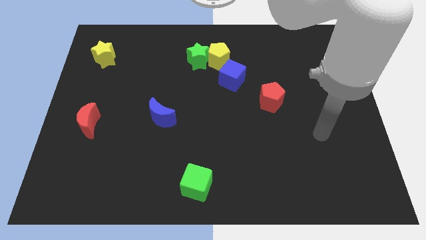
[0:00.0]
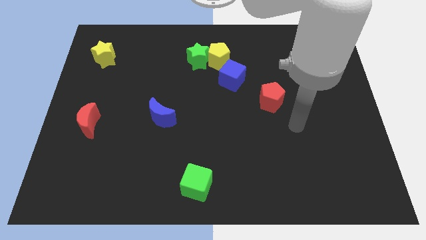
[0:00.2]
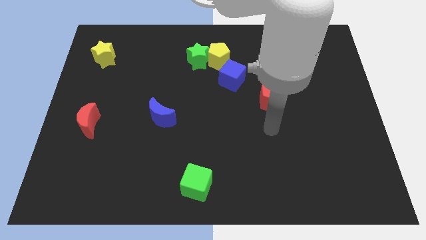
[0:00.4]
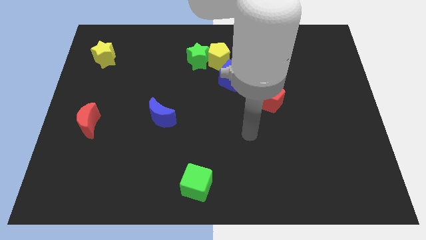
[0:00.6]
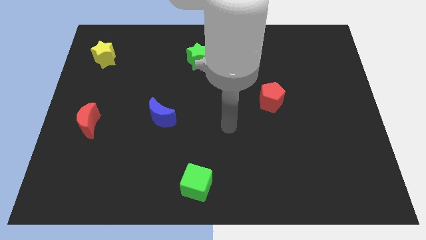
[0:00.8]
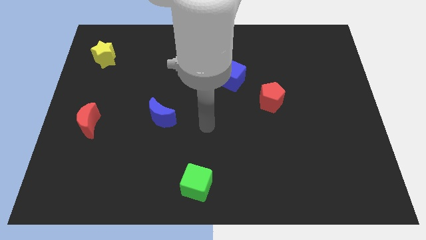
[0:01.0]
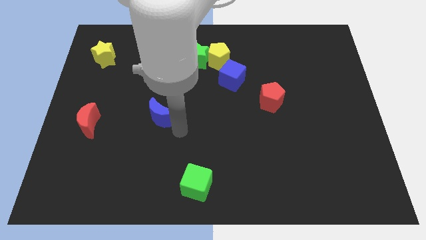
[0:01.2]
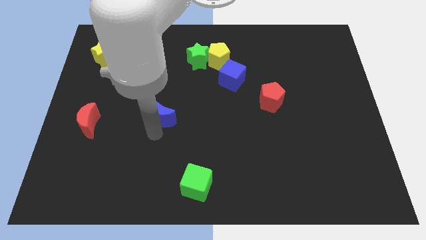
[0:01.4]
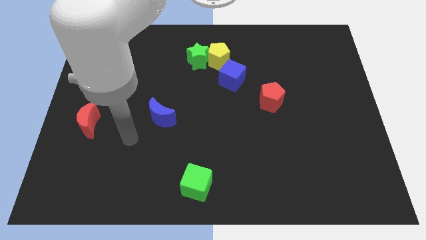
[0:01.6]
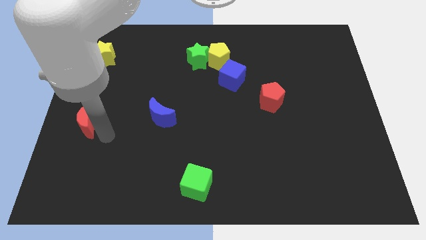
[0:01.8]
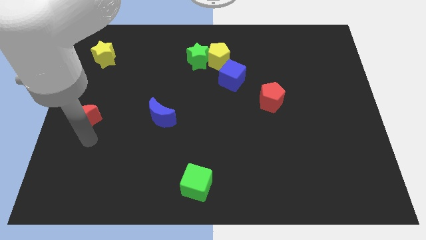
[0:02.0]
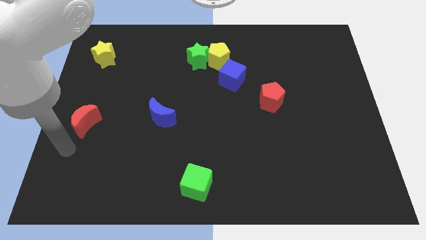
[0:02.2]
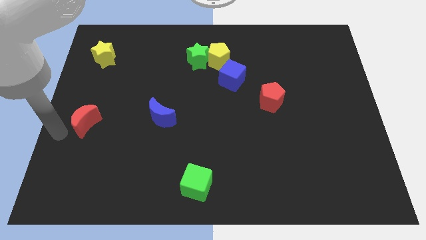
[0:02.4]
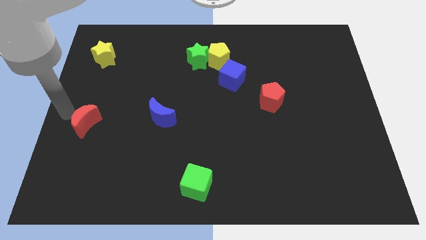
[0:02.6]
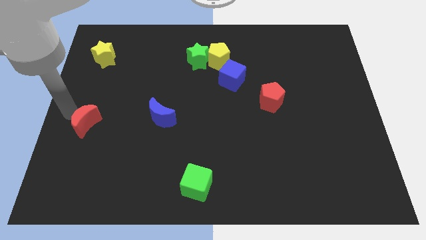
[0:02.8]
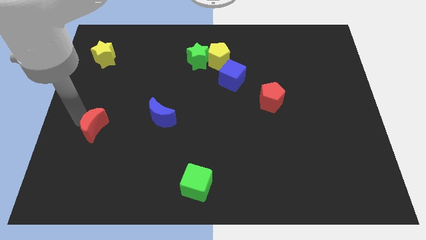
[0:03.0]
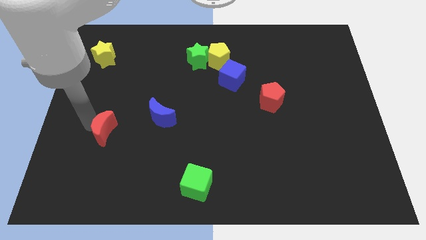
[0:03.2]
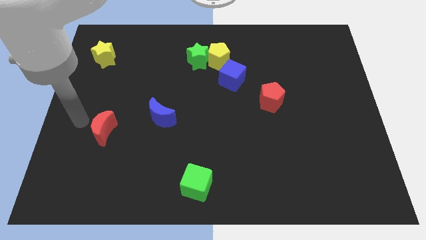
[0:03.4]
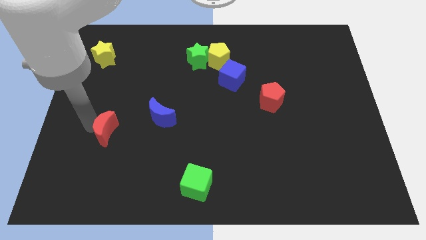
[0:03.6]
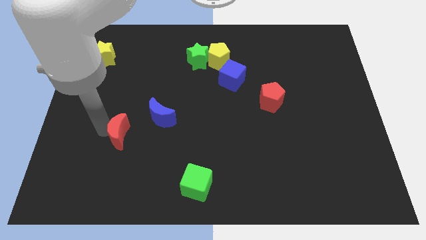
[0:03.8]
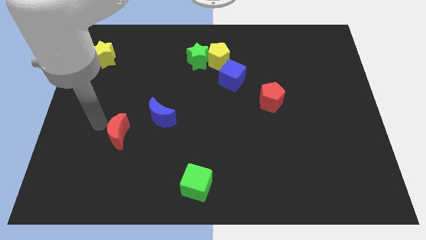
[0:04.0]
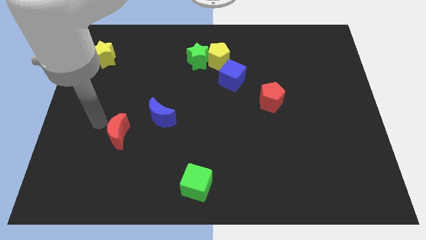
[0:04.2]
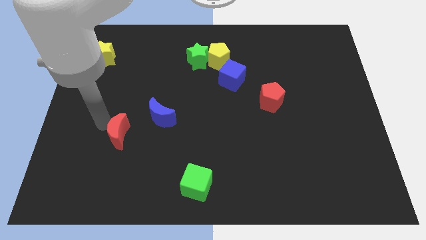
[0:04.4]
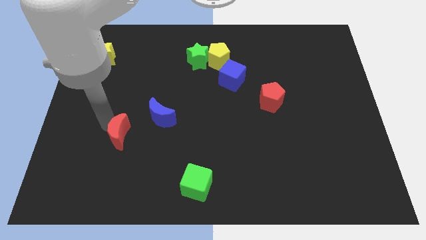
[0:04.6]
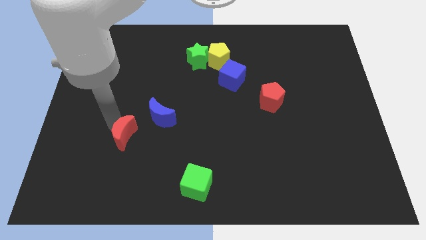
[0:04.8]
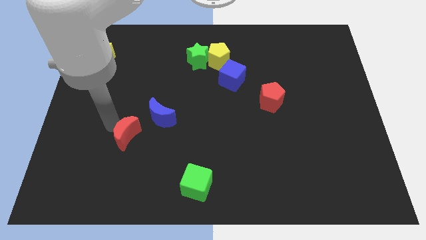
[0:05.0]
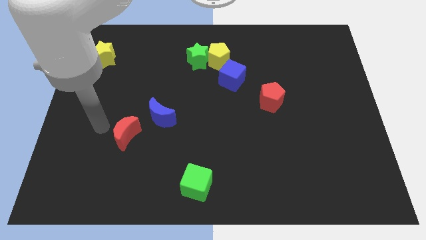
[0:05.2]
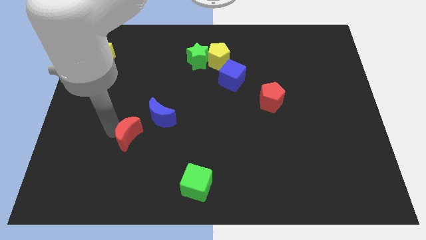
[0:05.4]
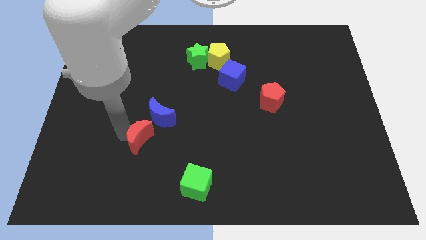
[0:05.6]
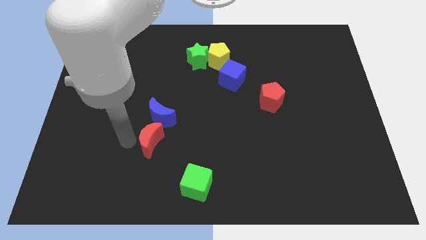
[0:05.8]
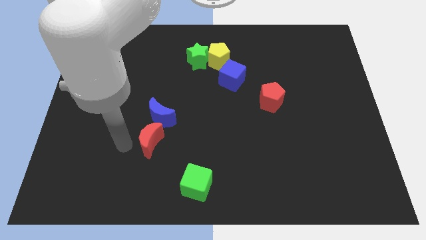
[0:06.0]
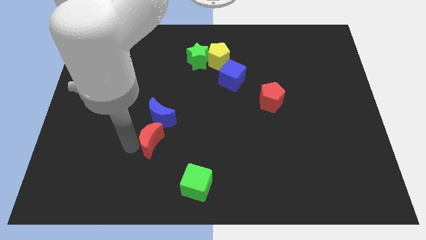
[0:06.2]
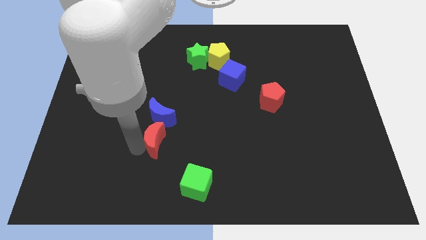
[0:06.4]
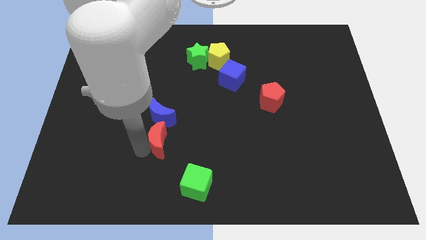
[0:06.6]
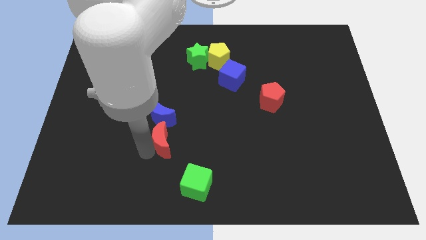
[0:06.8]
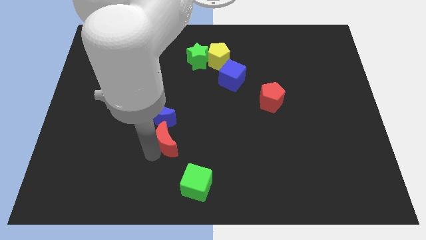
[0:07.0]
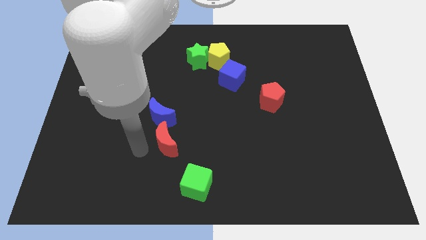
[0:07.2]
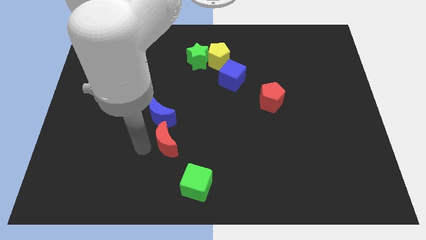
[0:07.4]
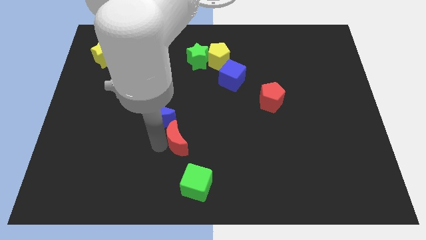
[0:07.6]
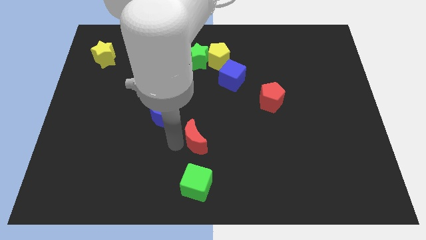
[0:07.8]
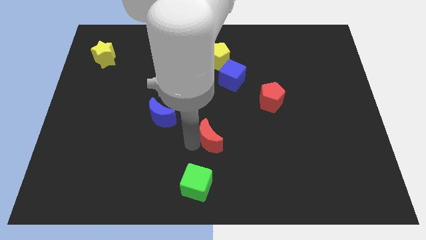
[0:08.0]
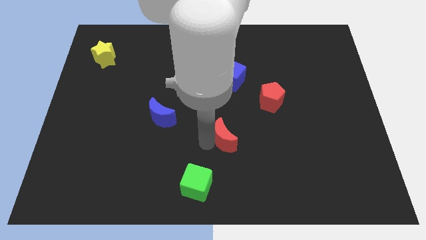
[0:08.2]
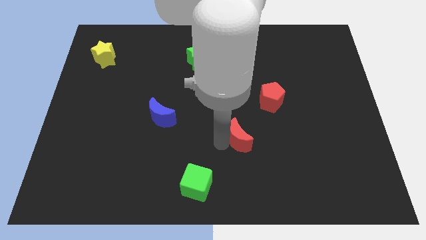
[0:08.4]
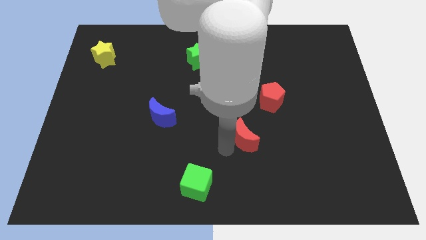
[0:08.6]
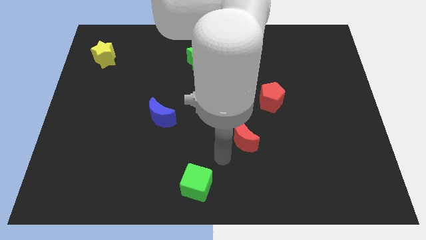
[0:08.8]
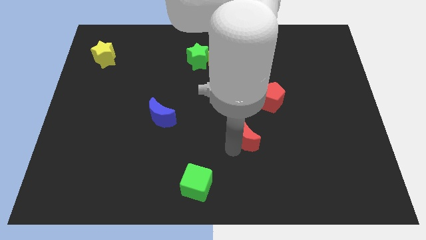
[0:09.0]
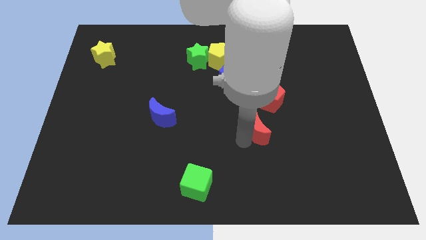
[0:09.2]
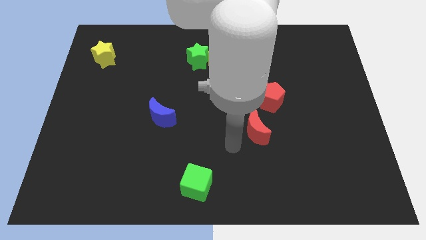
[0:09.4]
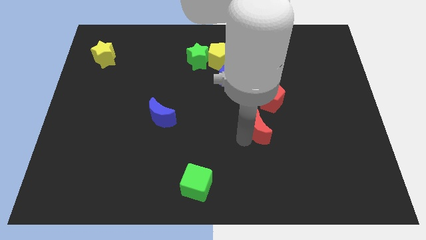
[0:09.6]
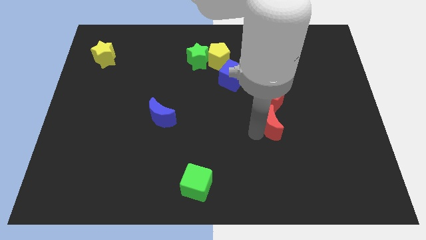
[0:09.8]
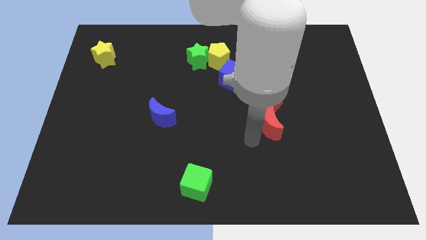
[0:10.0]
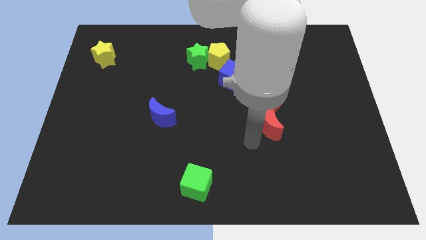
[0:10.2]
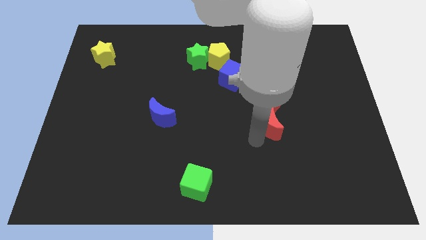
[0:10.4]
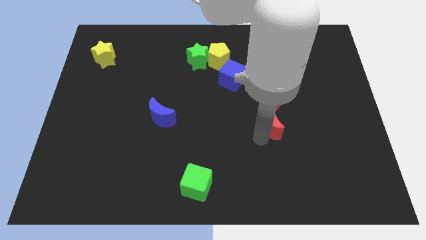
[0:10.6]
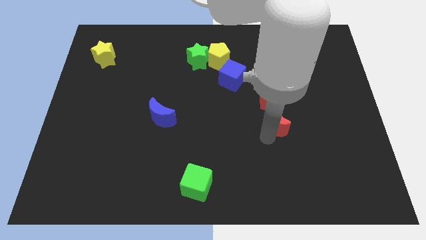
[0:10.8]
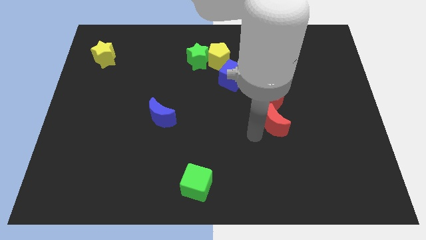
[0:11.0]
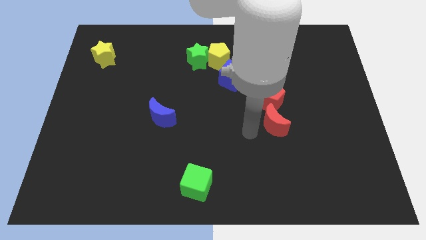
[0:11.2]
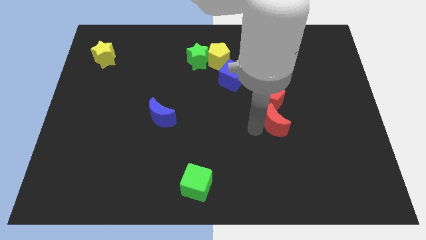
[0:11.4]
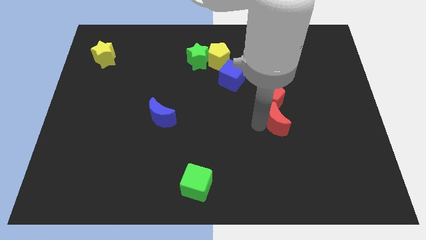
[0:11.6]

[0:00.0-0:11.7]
put the red moon to the bottom right of the red pentagon

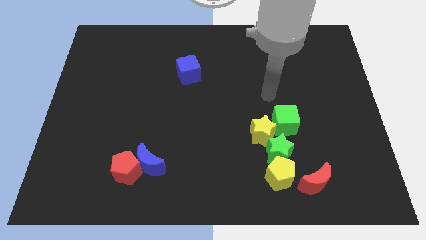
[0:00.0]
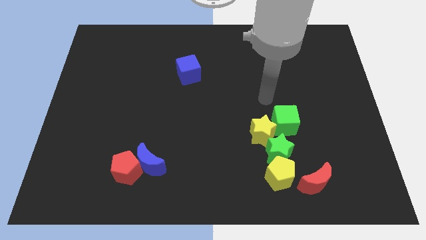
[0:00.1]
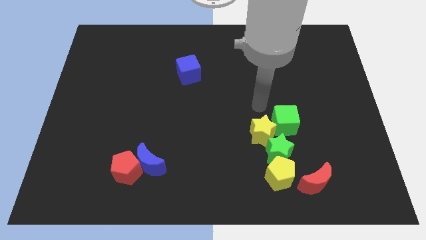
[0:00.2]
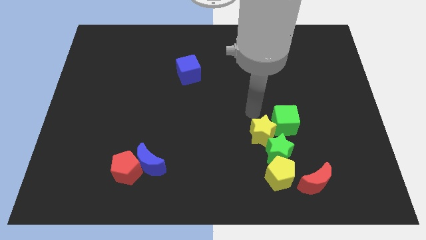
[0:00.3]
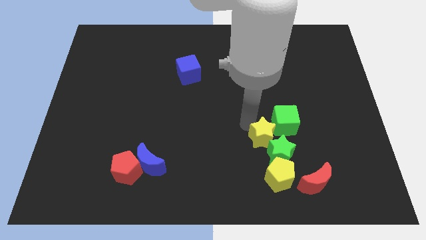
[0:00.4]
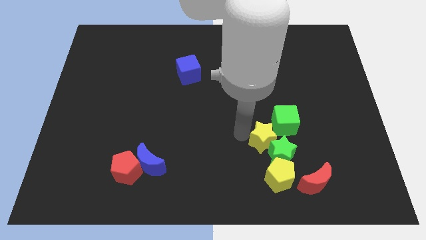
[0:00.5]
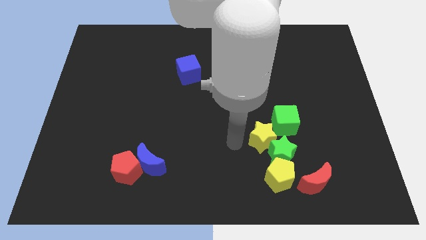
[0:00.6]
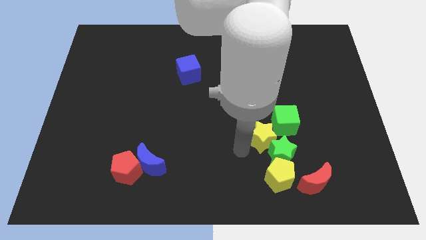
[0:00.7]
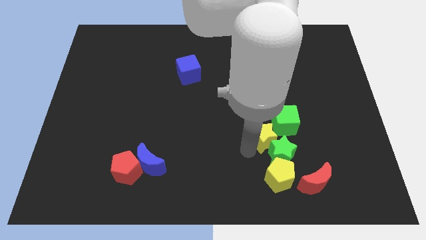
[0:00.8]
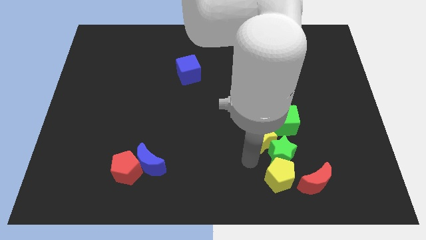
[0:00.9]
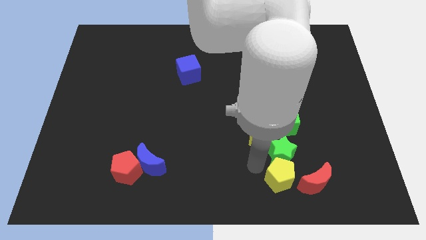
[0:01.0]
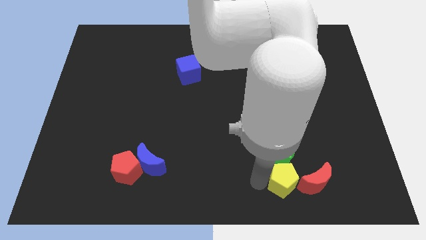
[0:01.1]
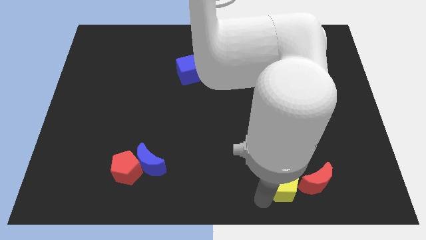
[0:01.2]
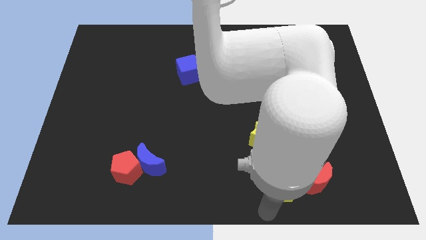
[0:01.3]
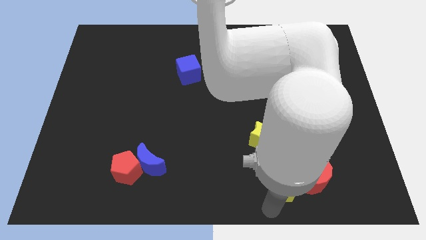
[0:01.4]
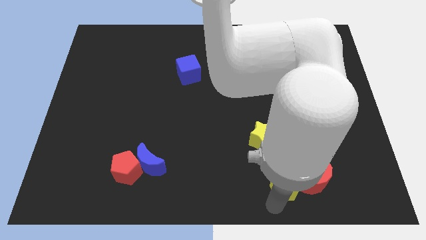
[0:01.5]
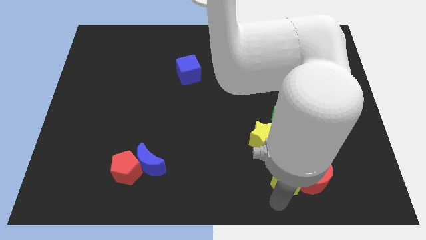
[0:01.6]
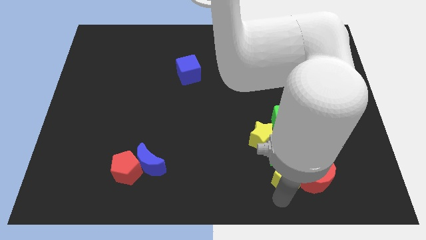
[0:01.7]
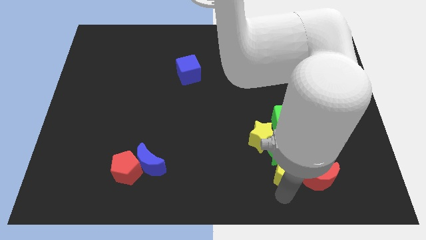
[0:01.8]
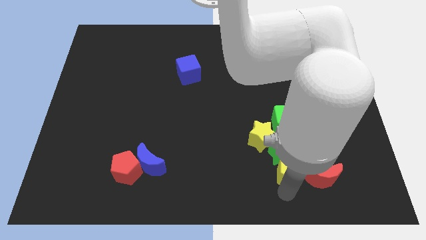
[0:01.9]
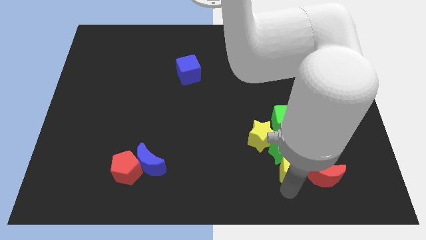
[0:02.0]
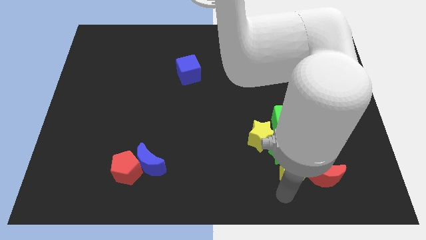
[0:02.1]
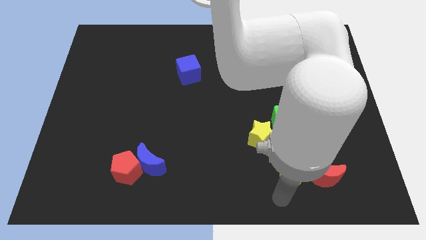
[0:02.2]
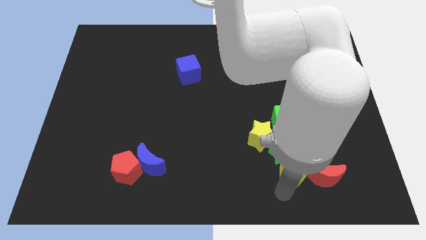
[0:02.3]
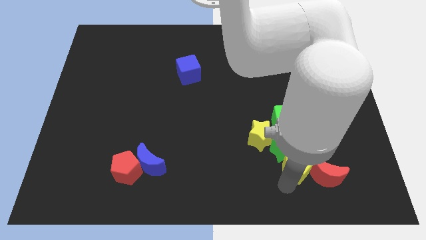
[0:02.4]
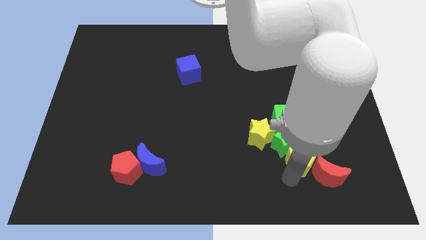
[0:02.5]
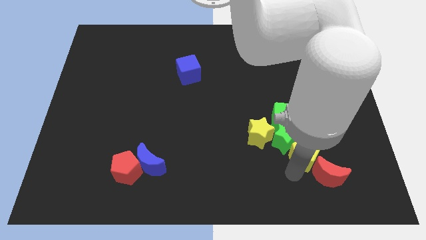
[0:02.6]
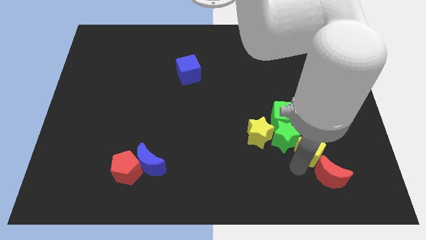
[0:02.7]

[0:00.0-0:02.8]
move the yellow pentagon just right of the yellow star
